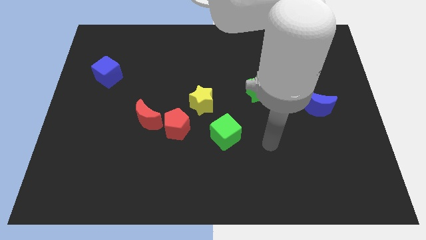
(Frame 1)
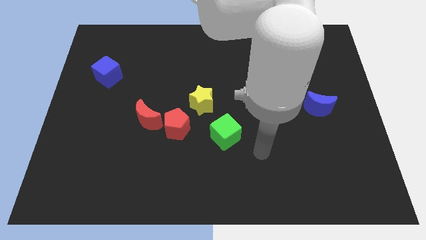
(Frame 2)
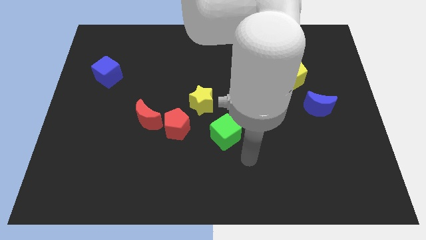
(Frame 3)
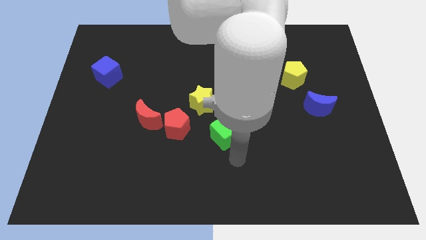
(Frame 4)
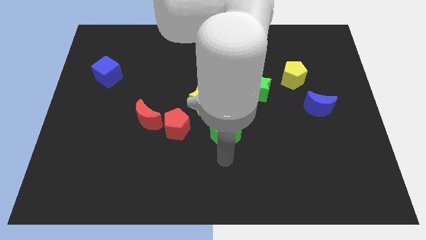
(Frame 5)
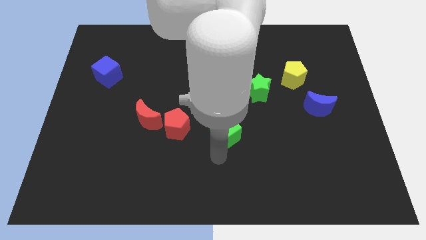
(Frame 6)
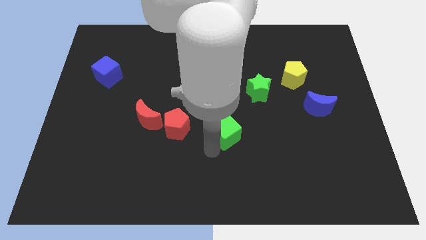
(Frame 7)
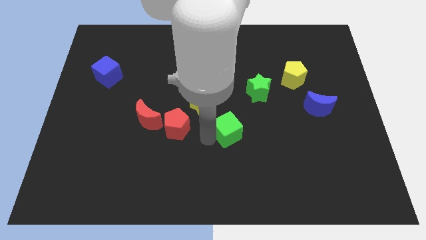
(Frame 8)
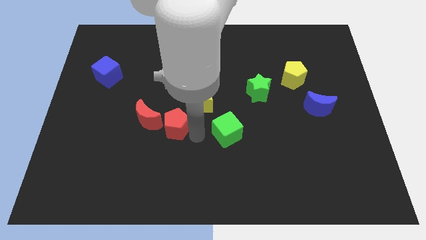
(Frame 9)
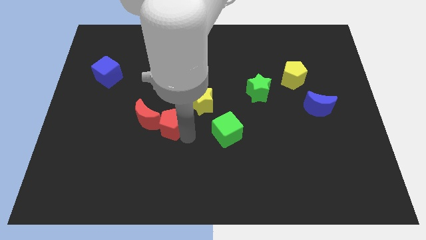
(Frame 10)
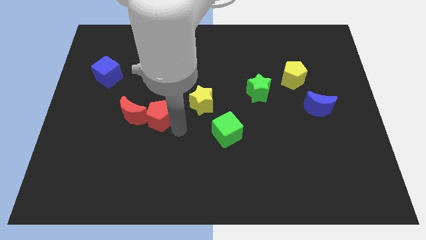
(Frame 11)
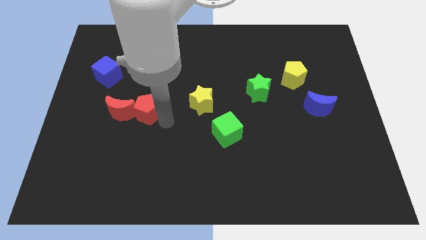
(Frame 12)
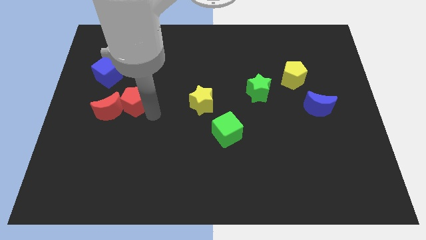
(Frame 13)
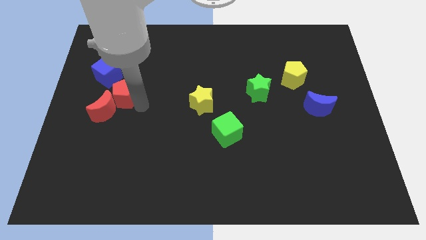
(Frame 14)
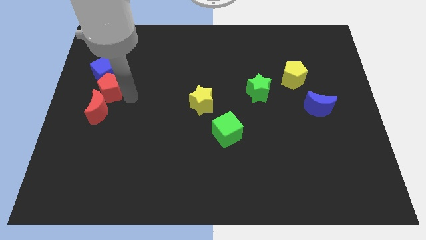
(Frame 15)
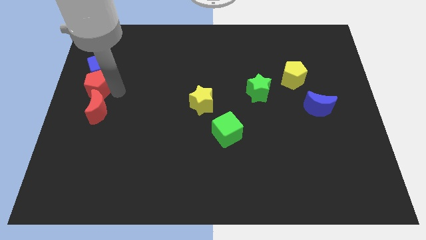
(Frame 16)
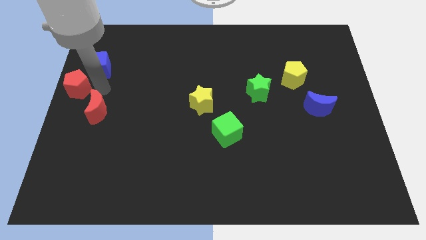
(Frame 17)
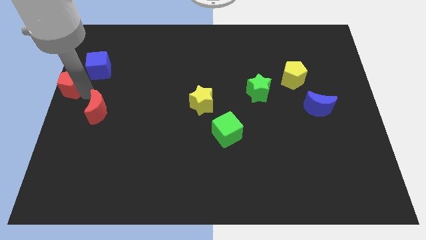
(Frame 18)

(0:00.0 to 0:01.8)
move the red moon away from the red pentagon

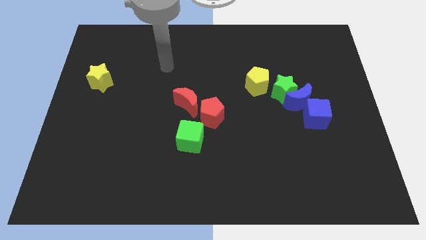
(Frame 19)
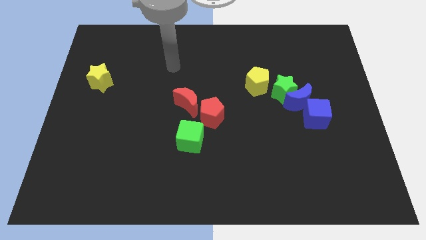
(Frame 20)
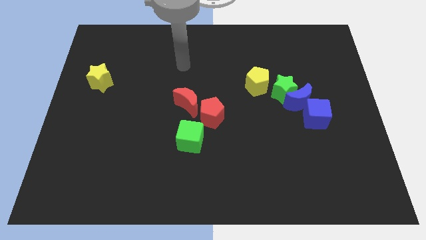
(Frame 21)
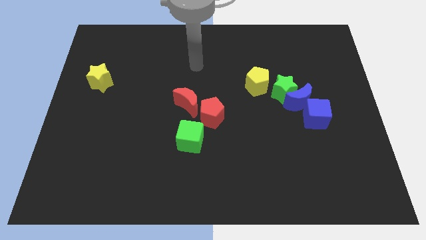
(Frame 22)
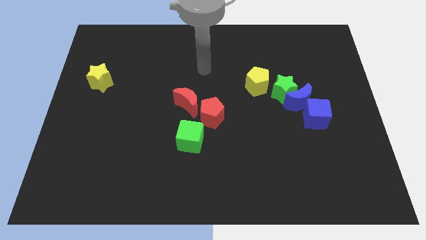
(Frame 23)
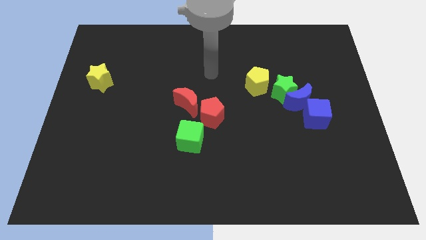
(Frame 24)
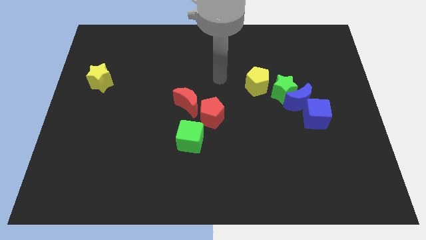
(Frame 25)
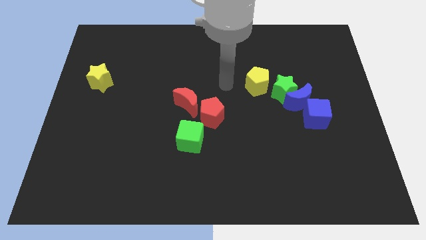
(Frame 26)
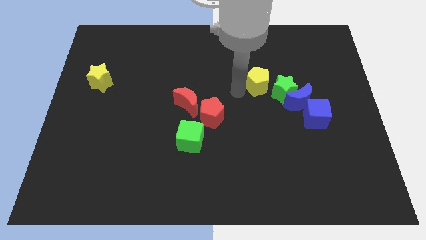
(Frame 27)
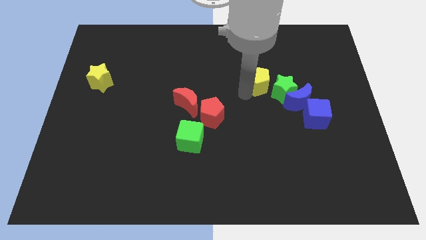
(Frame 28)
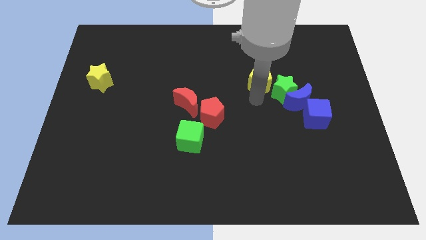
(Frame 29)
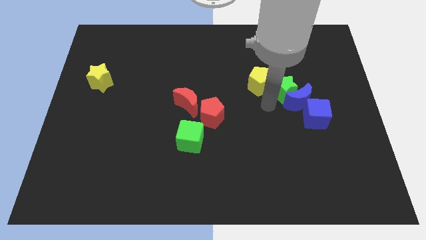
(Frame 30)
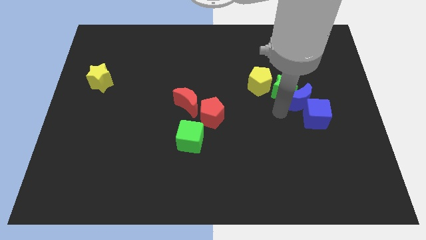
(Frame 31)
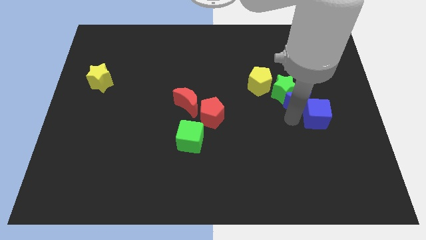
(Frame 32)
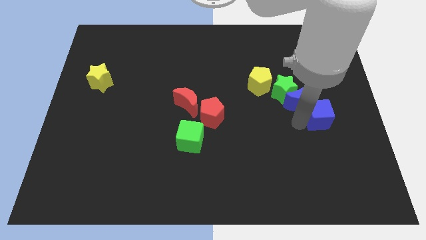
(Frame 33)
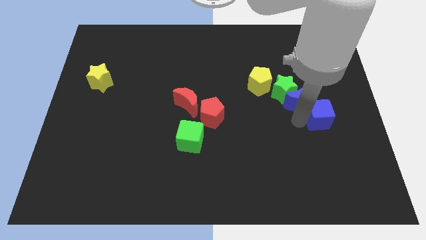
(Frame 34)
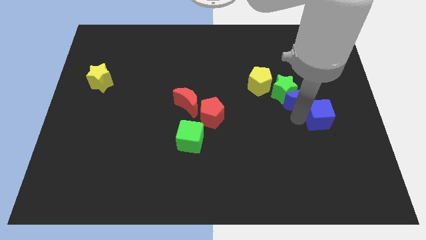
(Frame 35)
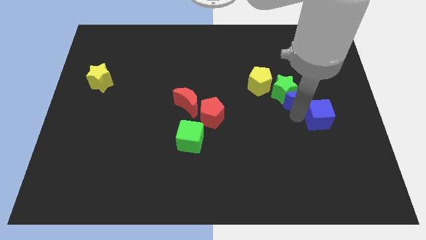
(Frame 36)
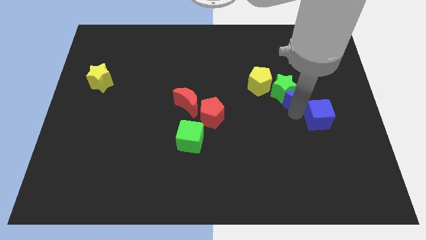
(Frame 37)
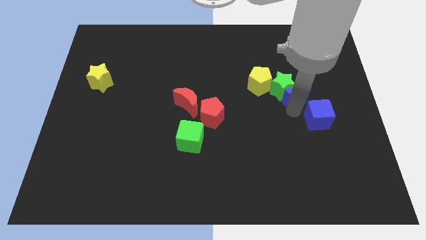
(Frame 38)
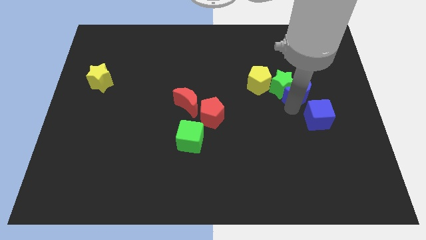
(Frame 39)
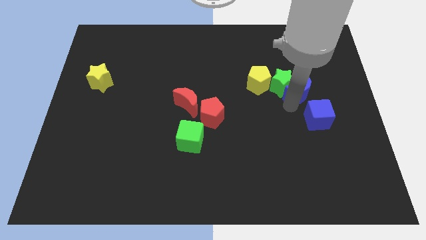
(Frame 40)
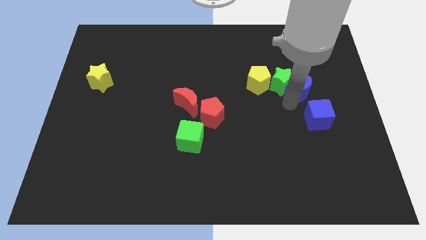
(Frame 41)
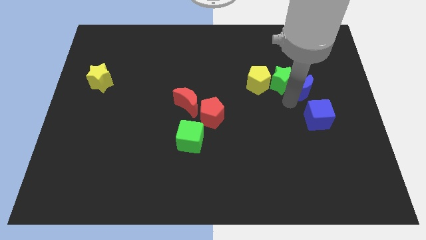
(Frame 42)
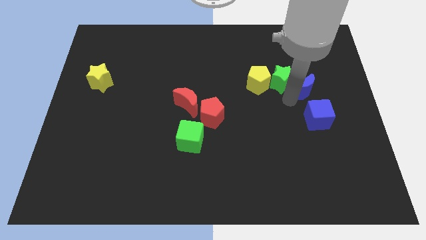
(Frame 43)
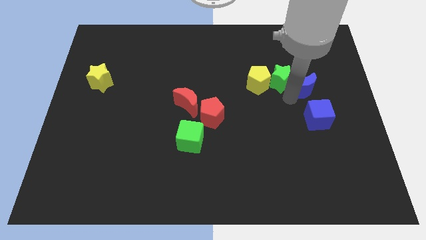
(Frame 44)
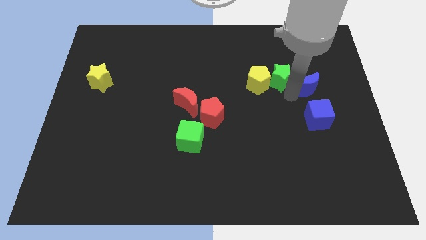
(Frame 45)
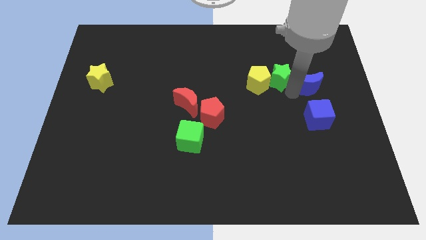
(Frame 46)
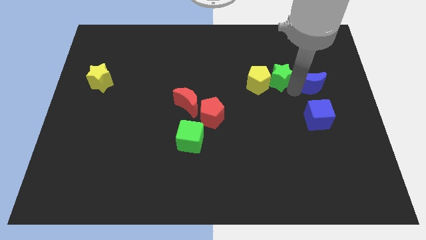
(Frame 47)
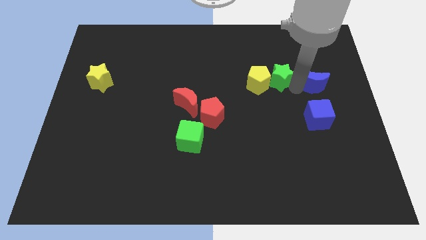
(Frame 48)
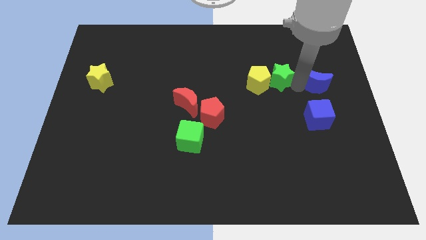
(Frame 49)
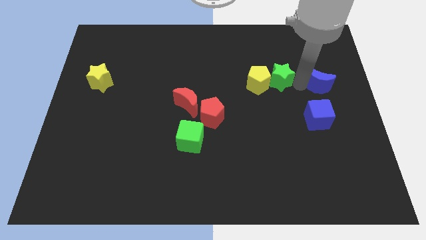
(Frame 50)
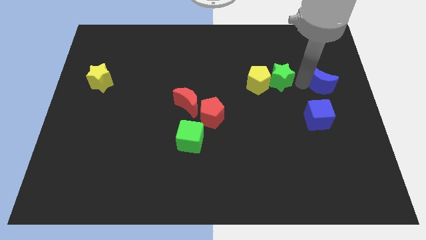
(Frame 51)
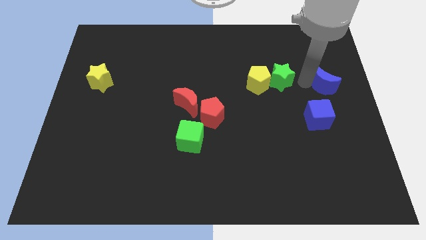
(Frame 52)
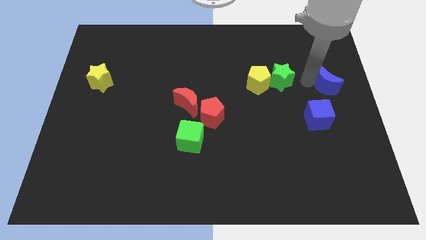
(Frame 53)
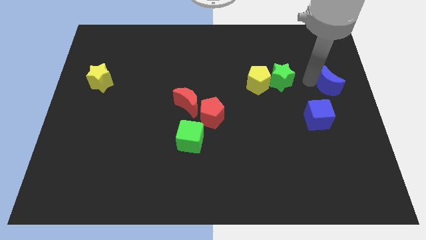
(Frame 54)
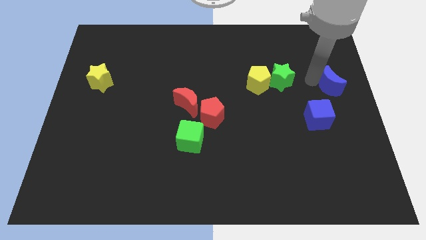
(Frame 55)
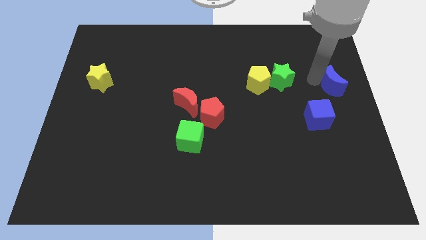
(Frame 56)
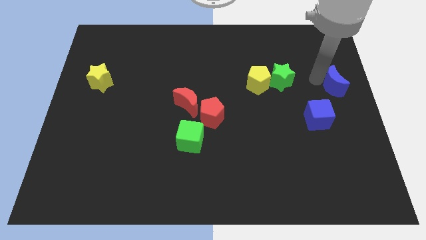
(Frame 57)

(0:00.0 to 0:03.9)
separate the blue moon from the green star and blue cube

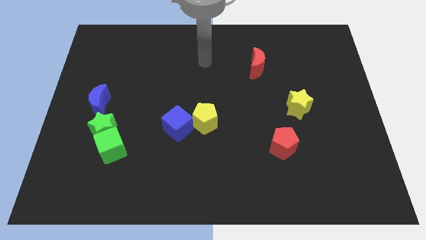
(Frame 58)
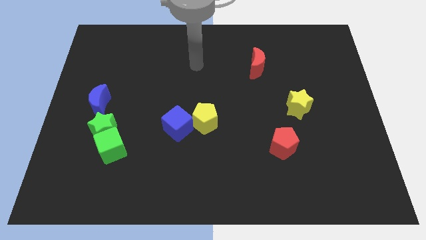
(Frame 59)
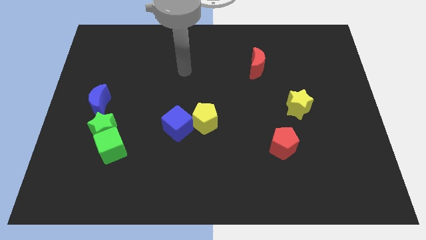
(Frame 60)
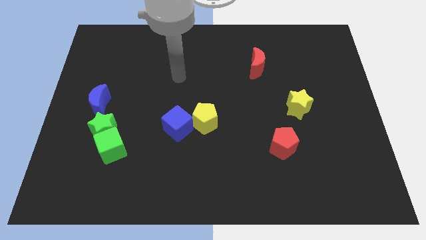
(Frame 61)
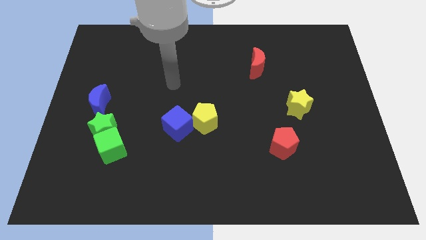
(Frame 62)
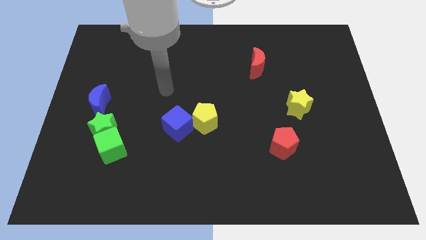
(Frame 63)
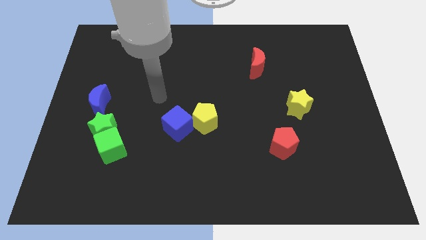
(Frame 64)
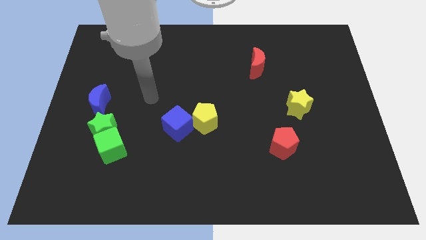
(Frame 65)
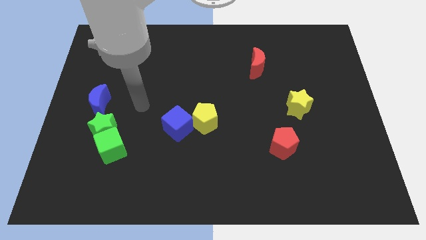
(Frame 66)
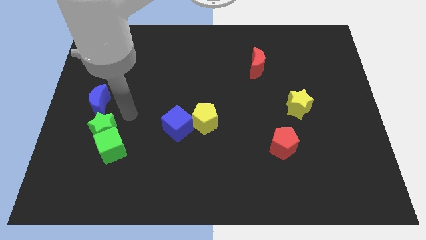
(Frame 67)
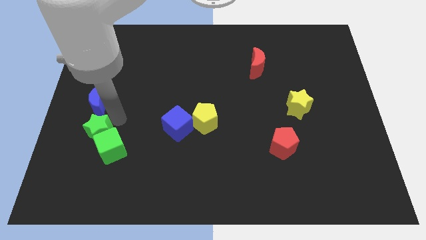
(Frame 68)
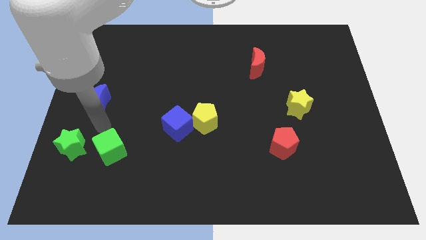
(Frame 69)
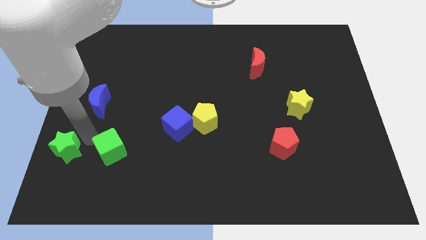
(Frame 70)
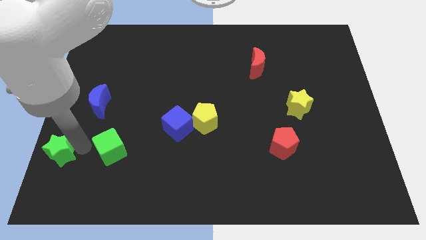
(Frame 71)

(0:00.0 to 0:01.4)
pull the green cube apart from the green star

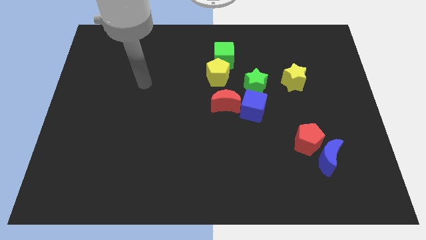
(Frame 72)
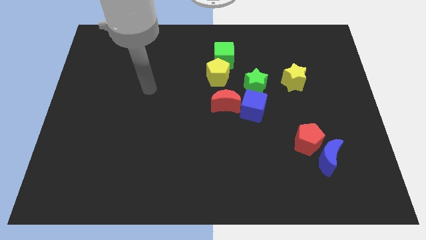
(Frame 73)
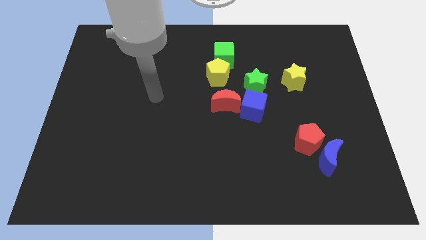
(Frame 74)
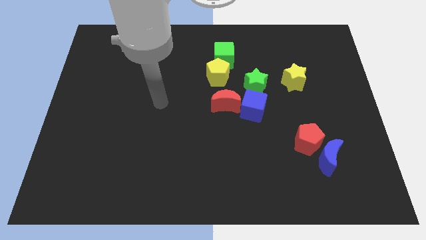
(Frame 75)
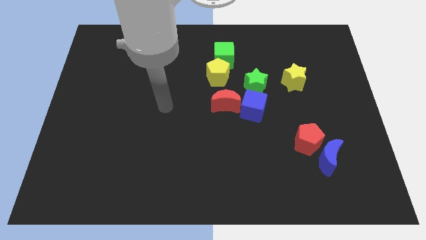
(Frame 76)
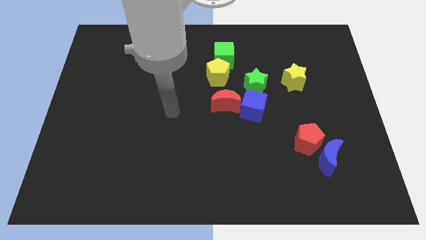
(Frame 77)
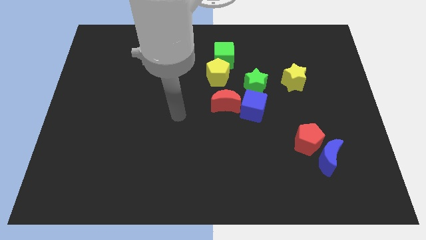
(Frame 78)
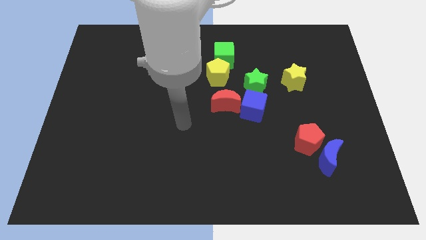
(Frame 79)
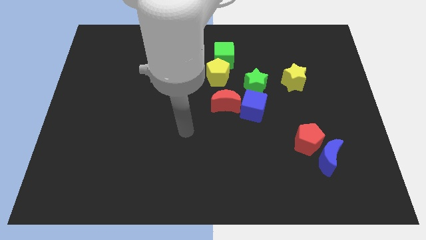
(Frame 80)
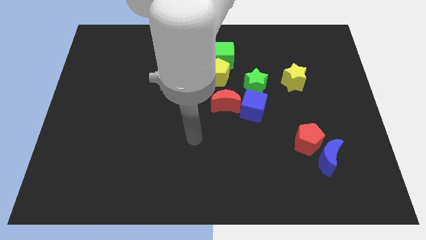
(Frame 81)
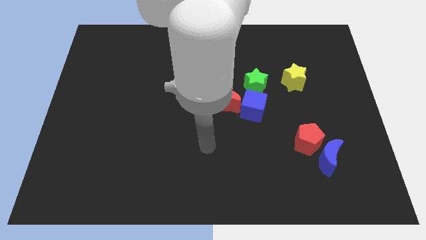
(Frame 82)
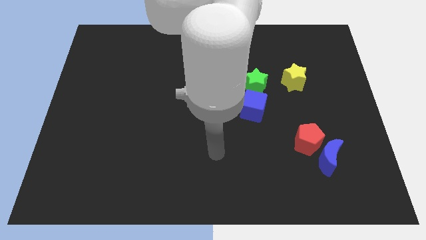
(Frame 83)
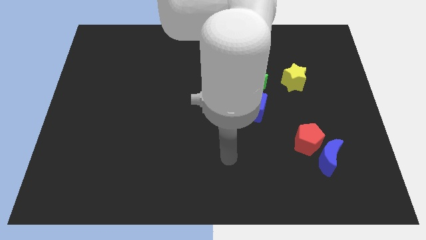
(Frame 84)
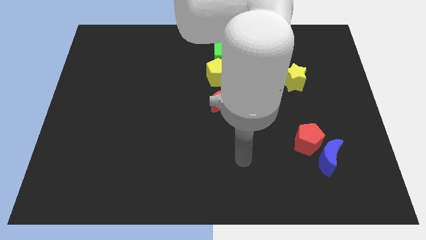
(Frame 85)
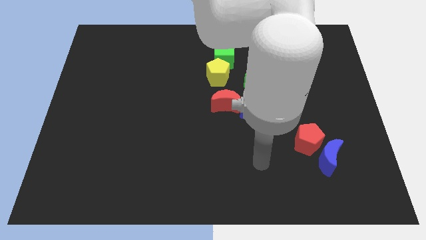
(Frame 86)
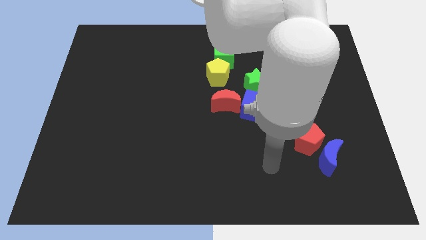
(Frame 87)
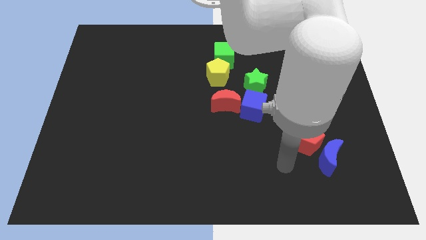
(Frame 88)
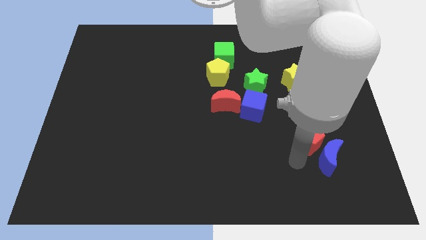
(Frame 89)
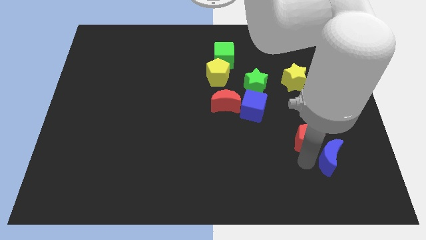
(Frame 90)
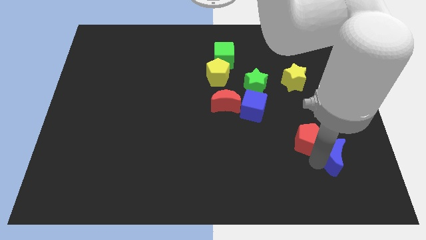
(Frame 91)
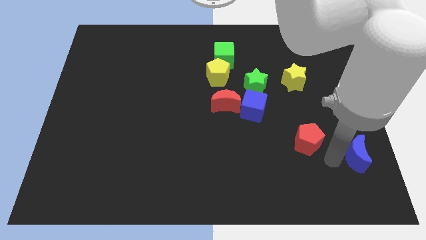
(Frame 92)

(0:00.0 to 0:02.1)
separate the red pentagon from the blue moon

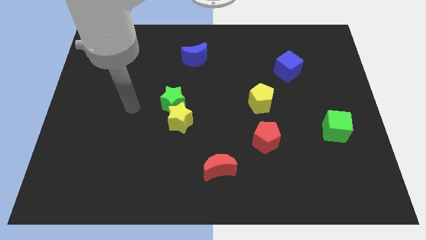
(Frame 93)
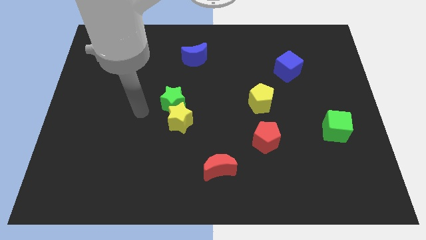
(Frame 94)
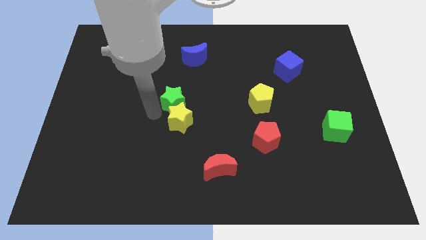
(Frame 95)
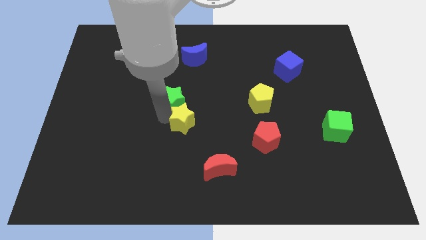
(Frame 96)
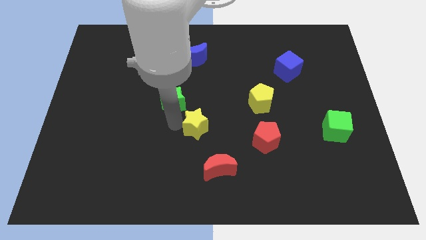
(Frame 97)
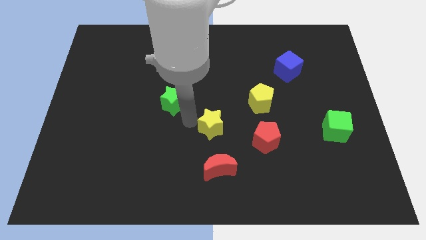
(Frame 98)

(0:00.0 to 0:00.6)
separate the green star from the yellow star
